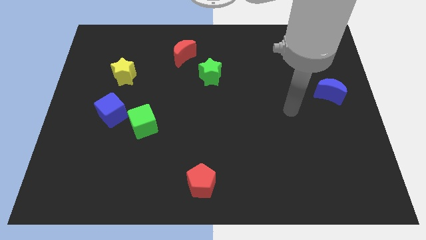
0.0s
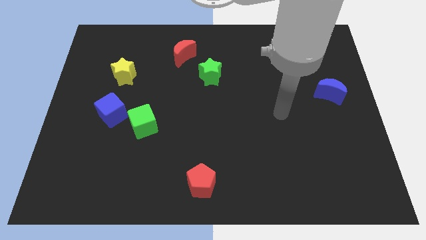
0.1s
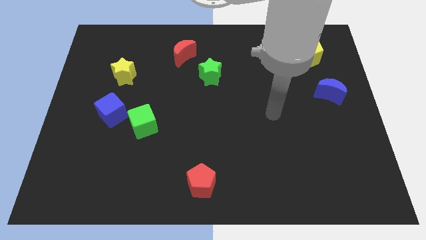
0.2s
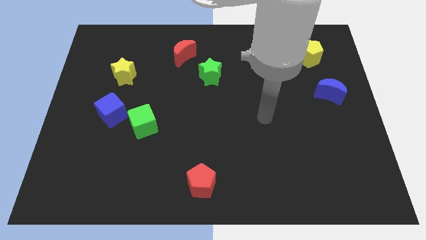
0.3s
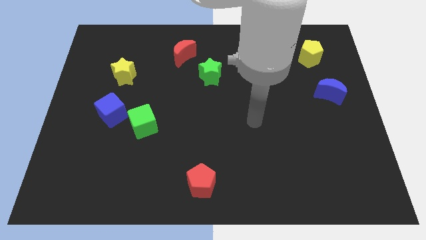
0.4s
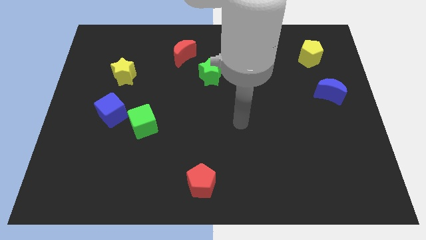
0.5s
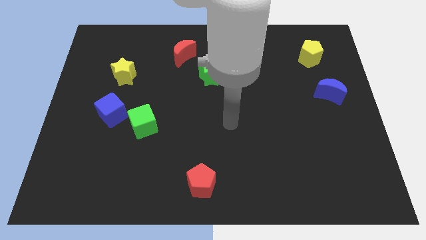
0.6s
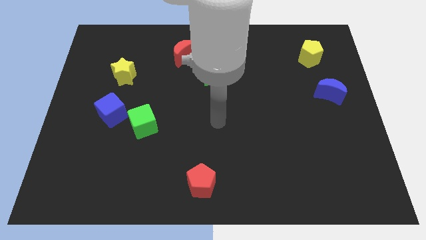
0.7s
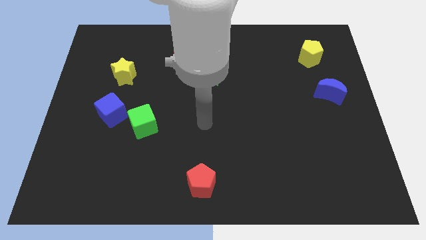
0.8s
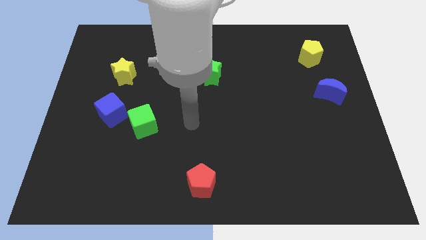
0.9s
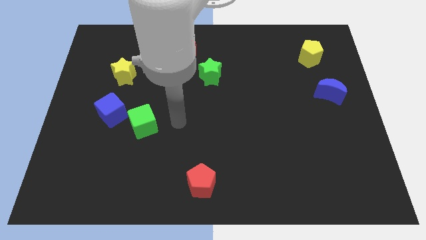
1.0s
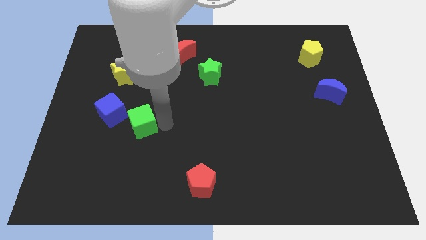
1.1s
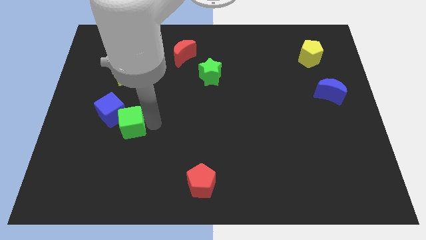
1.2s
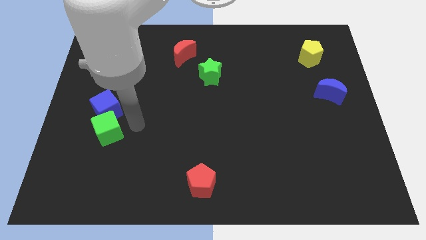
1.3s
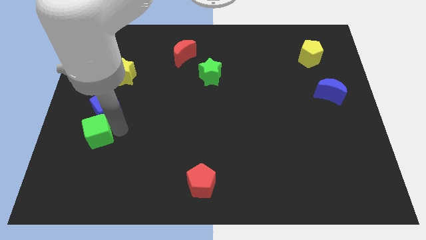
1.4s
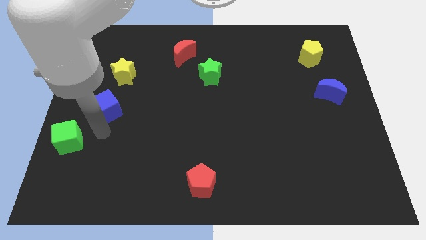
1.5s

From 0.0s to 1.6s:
move the blue cube away from the green cube

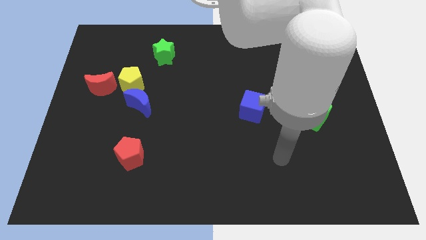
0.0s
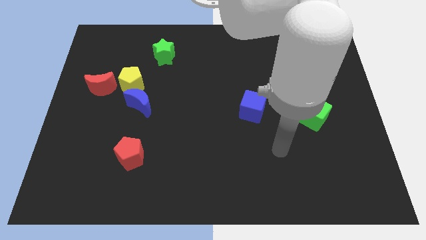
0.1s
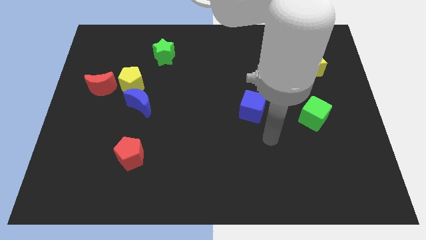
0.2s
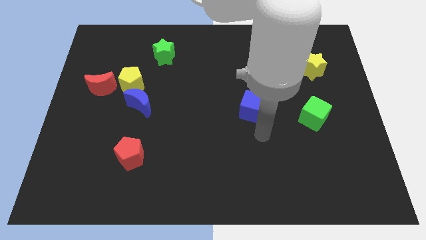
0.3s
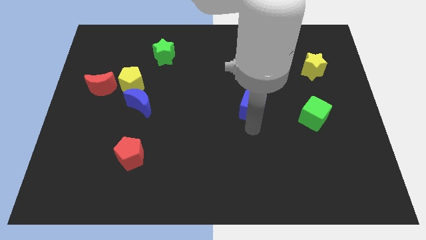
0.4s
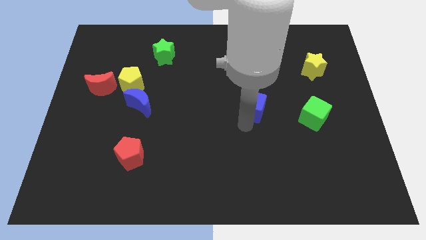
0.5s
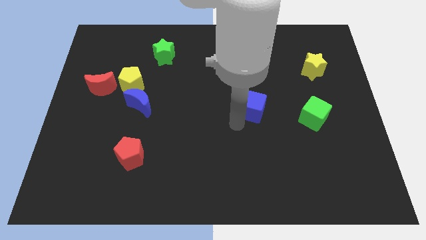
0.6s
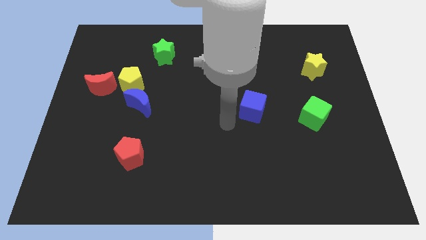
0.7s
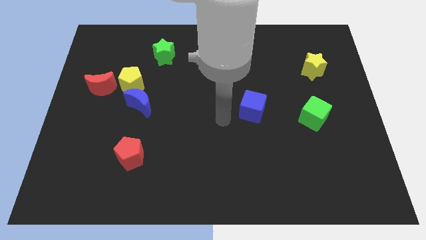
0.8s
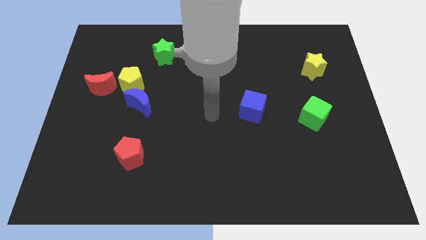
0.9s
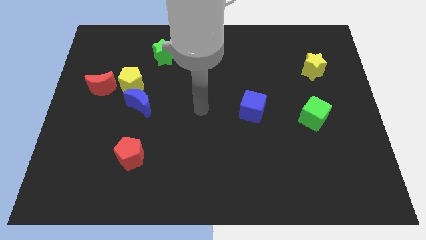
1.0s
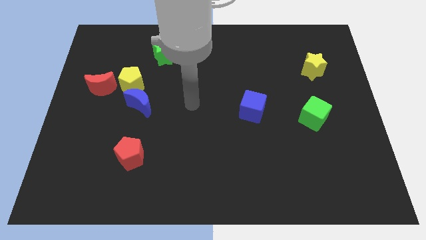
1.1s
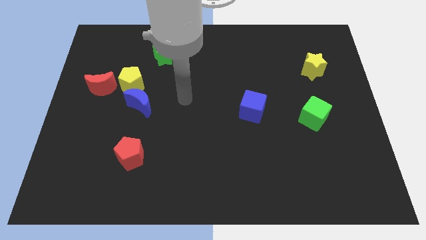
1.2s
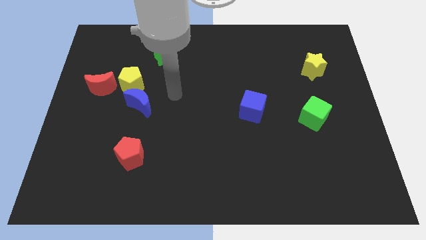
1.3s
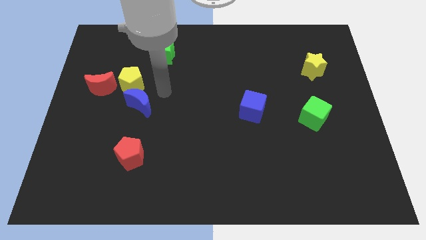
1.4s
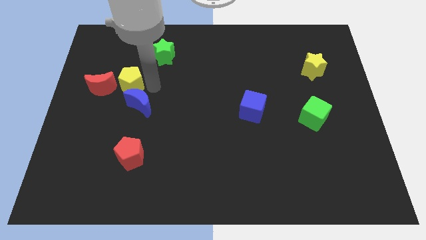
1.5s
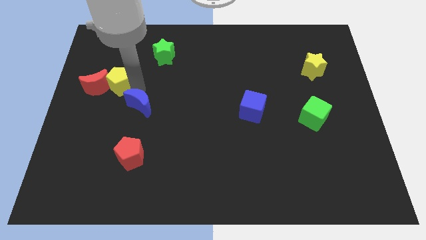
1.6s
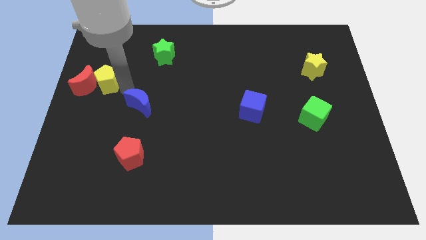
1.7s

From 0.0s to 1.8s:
pull the blue moon apart from the yellow pentagon

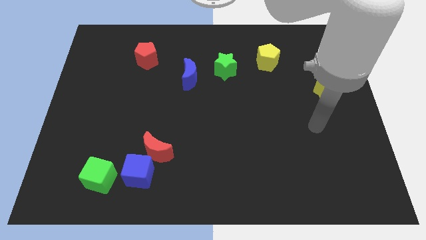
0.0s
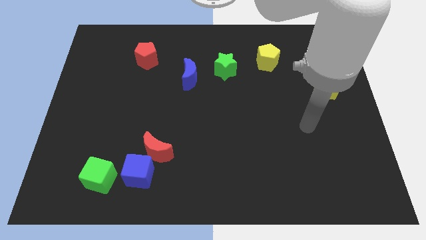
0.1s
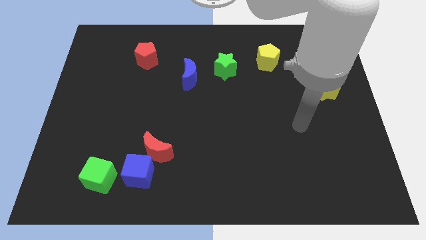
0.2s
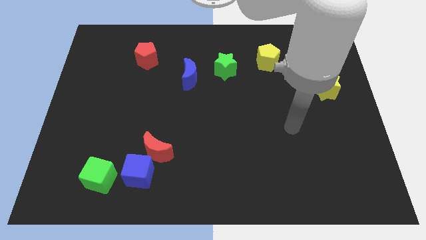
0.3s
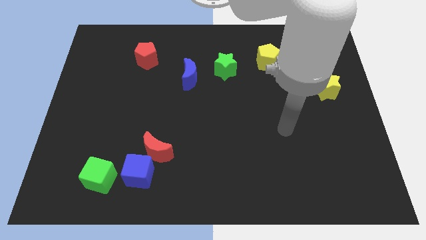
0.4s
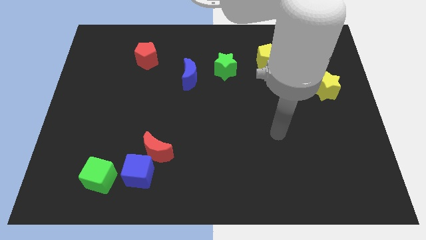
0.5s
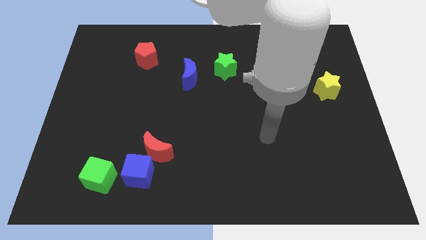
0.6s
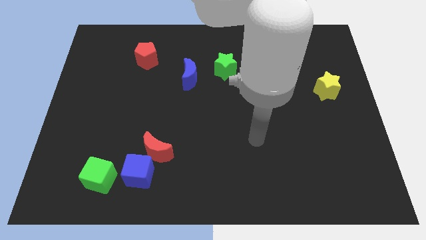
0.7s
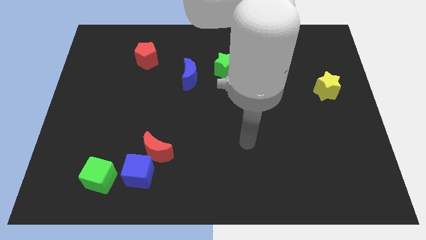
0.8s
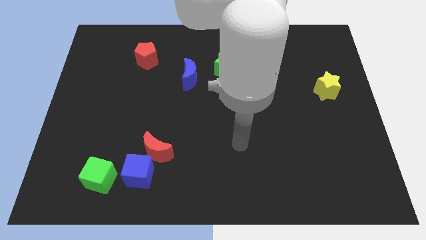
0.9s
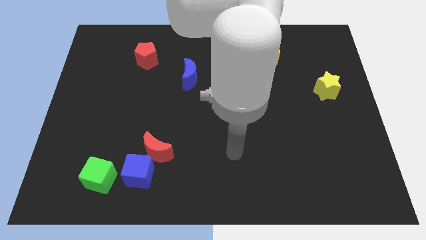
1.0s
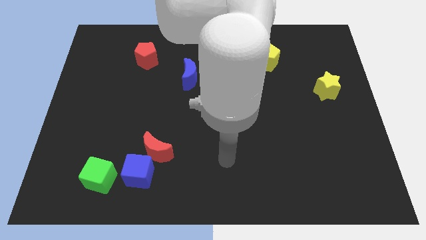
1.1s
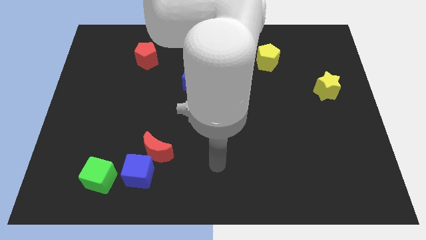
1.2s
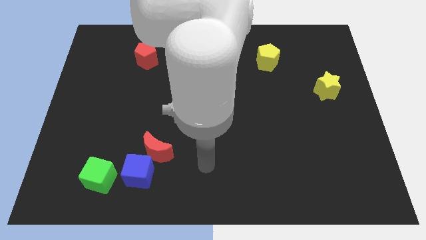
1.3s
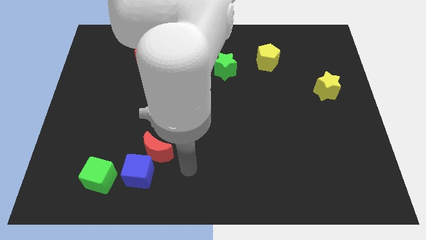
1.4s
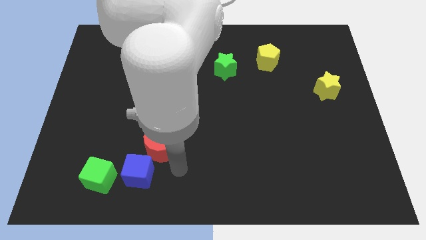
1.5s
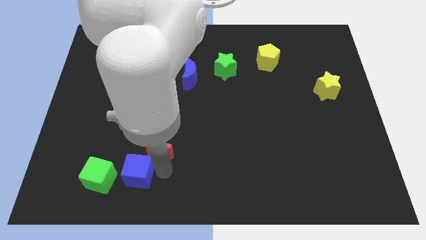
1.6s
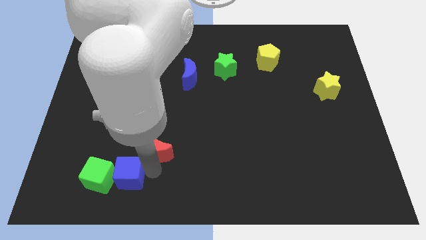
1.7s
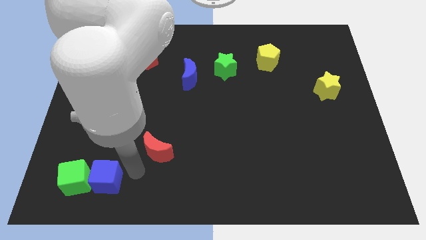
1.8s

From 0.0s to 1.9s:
pull the red moon apart from the blue cube

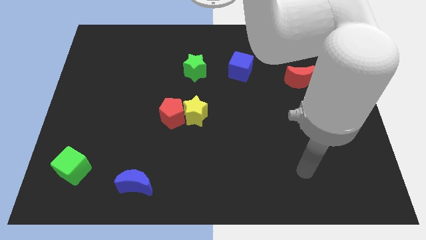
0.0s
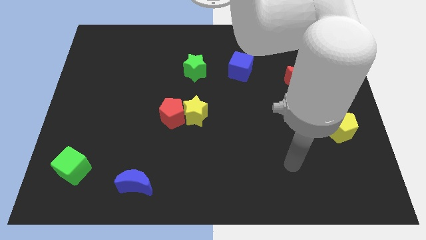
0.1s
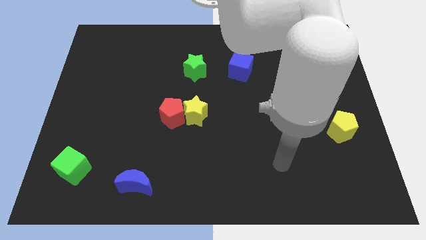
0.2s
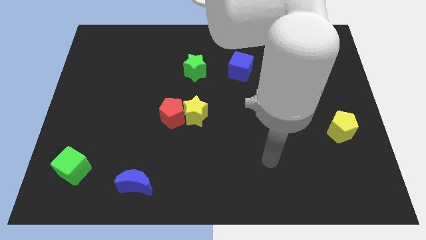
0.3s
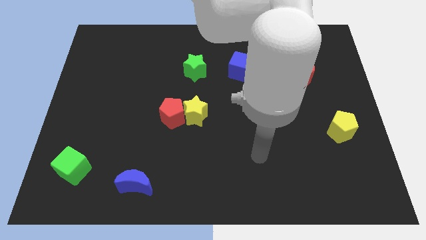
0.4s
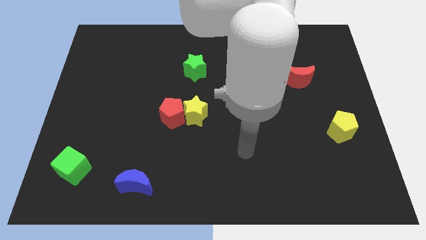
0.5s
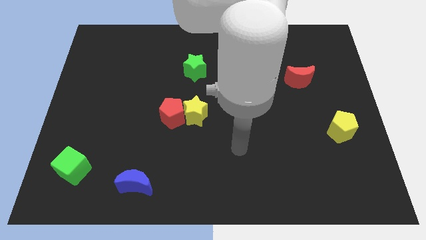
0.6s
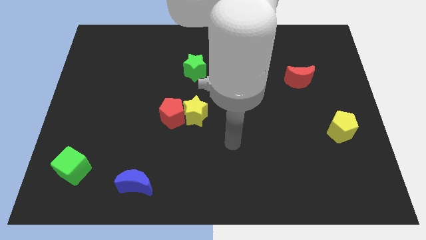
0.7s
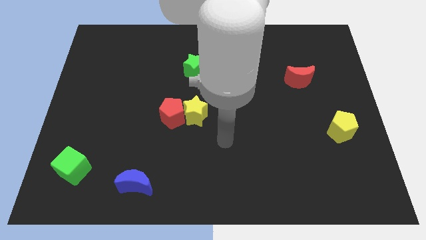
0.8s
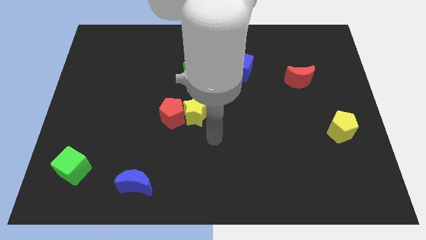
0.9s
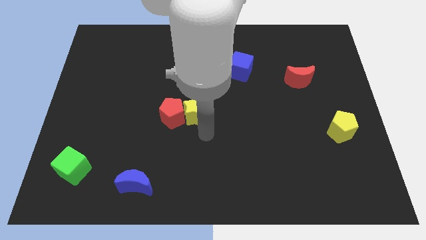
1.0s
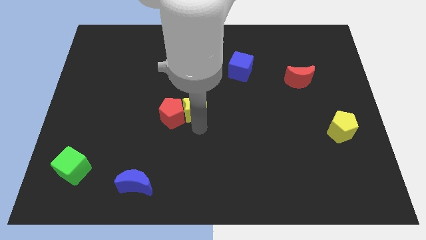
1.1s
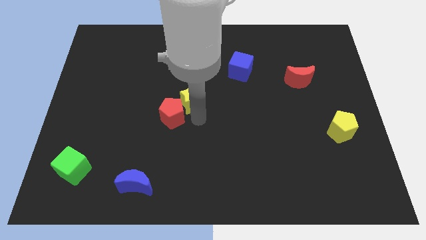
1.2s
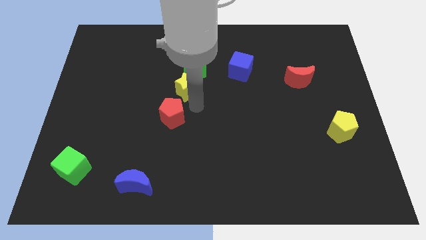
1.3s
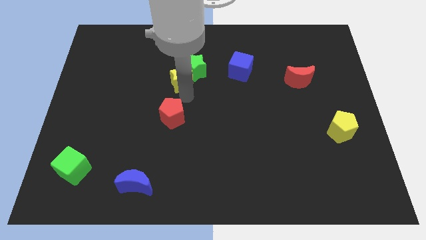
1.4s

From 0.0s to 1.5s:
separate the red pentagon from the yellow star

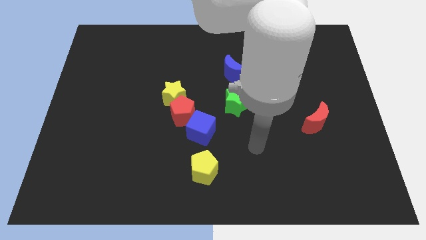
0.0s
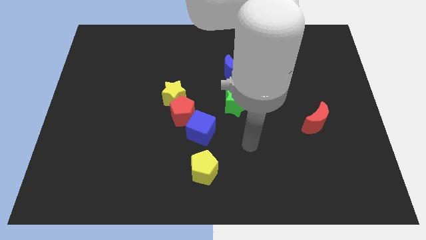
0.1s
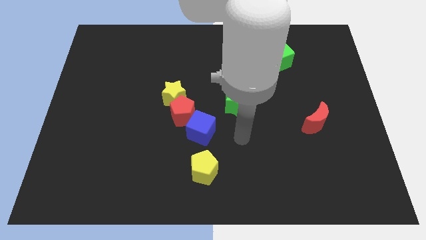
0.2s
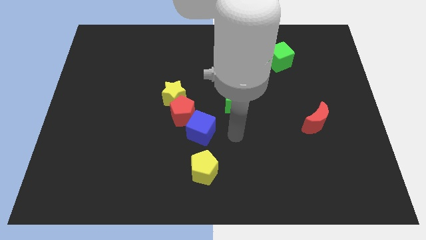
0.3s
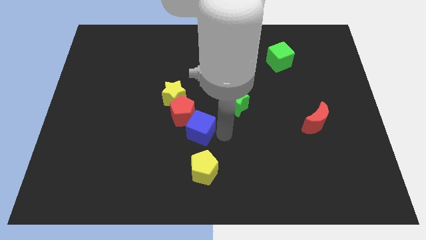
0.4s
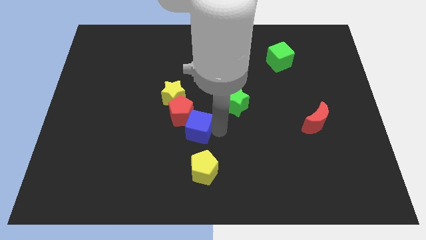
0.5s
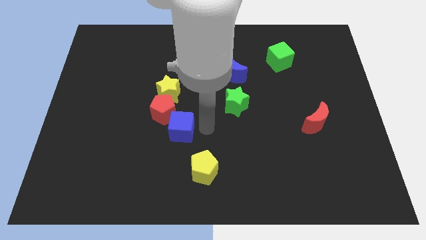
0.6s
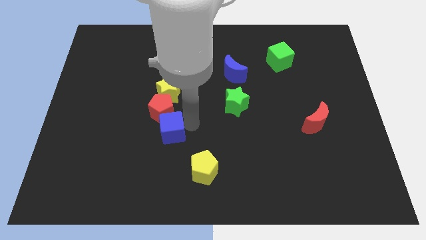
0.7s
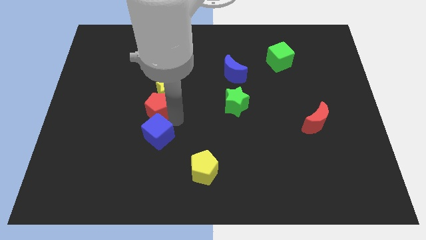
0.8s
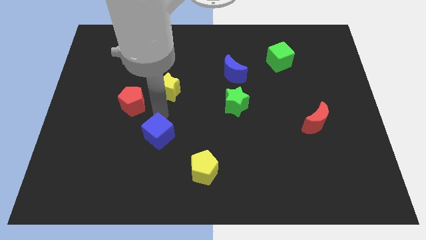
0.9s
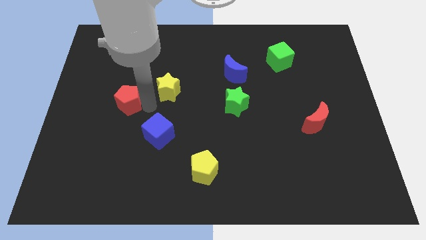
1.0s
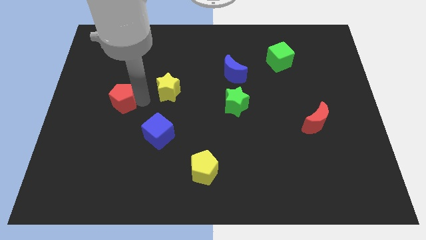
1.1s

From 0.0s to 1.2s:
pull the yellow star apart from the red pentagon

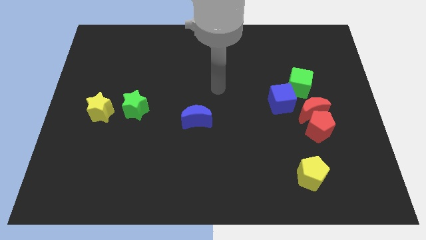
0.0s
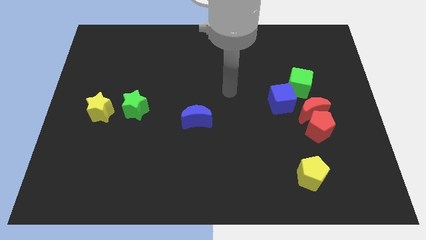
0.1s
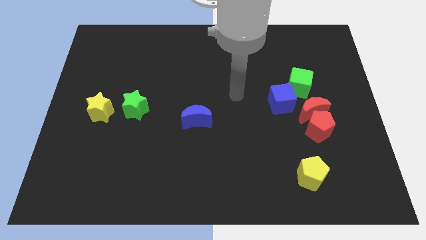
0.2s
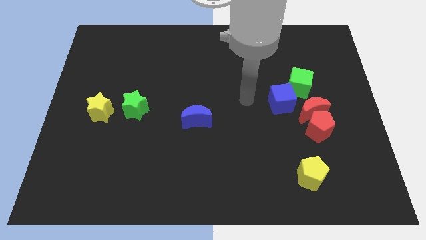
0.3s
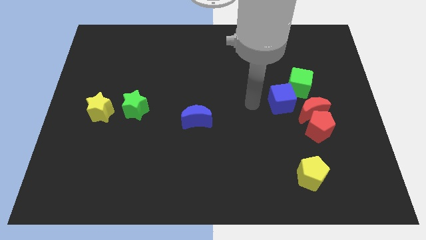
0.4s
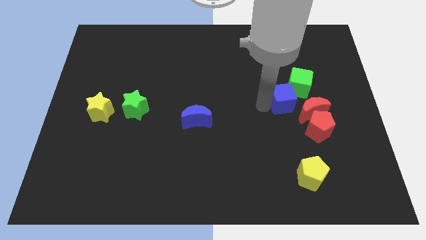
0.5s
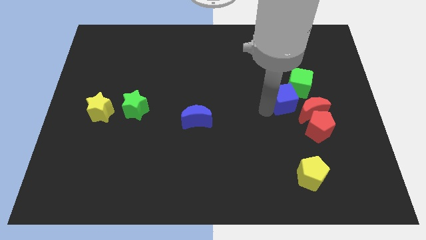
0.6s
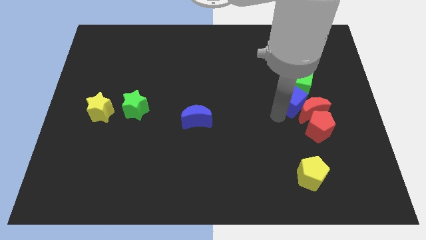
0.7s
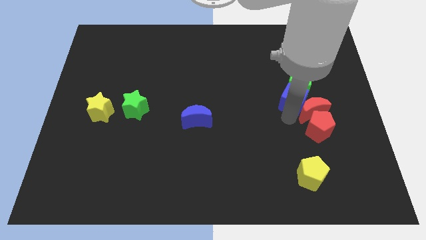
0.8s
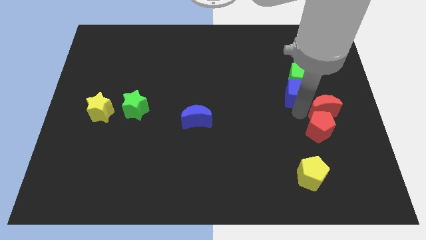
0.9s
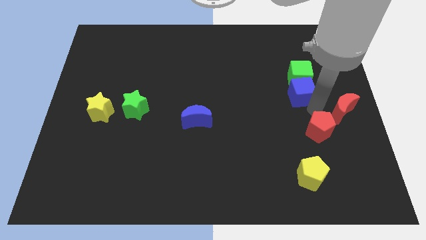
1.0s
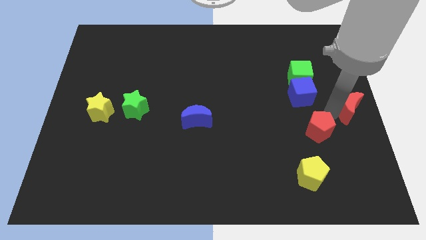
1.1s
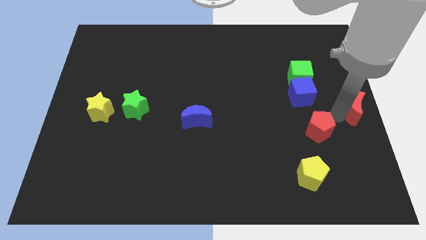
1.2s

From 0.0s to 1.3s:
pull the red pentagon apart from the red moon
